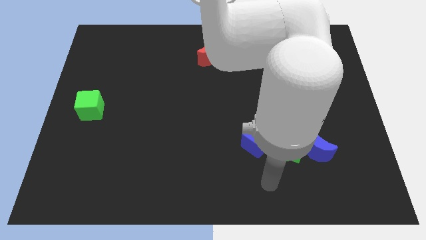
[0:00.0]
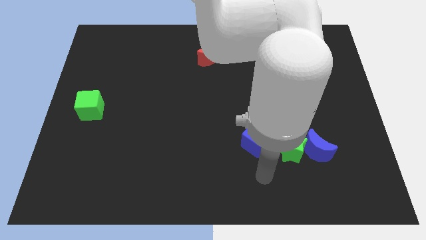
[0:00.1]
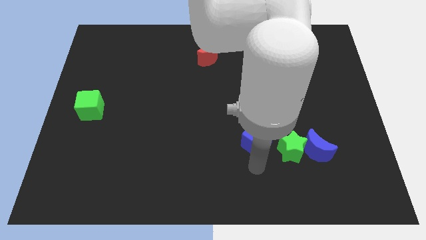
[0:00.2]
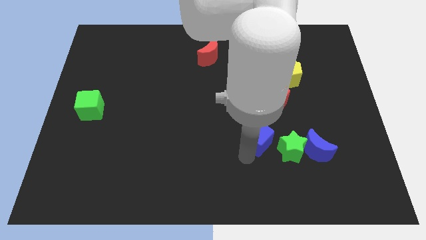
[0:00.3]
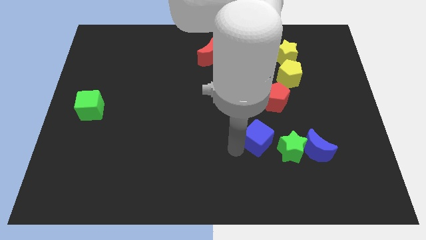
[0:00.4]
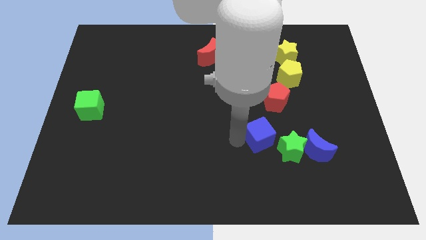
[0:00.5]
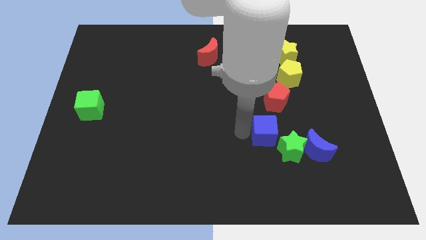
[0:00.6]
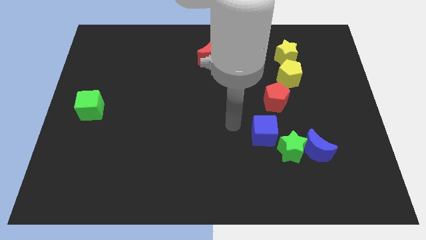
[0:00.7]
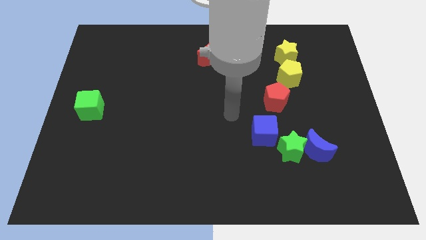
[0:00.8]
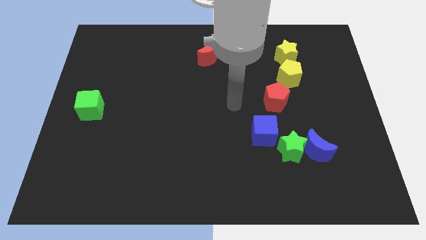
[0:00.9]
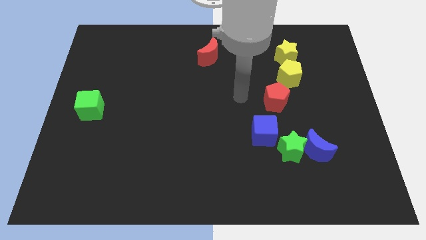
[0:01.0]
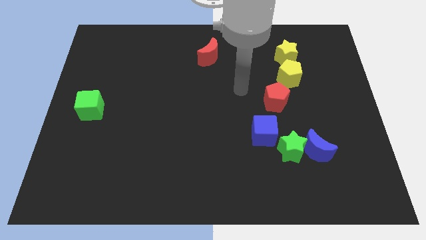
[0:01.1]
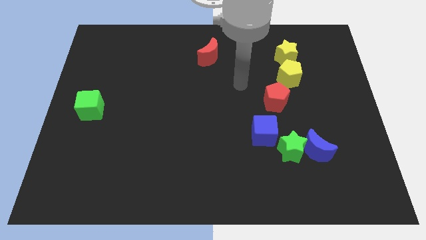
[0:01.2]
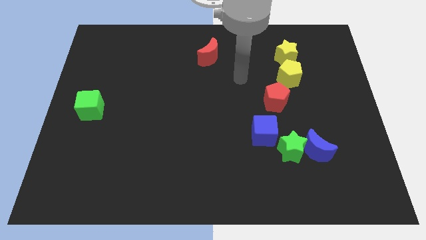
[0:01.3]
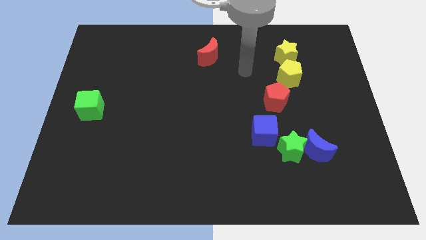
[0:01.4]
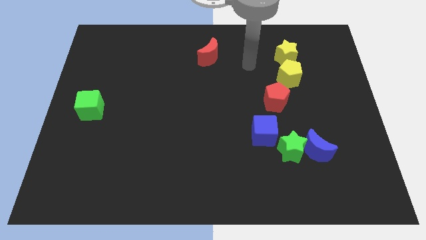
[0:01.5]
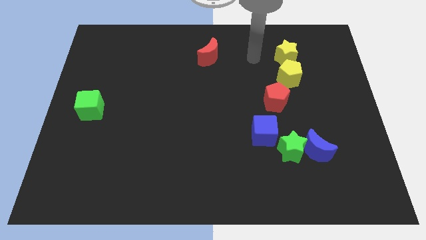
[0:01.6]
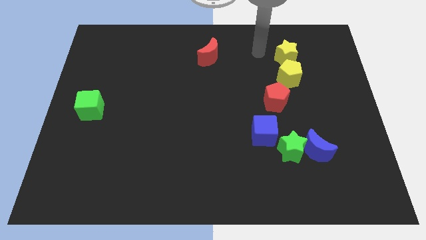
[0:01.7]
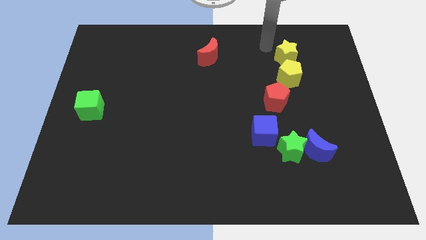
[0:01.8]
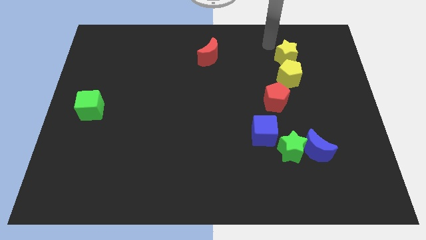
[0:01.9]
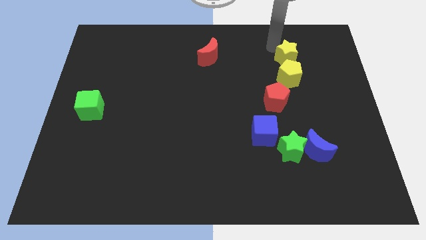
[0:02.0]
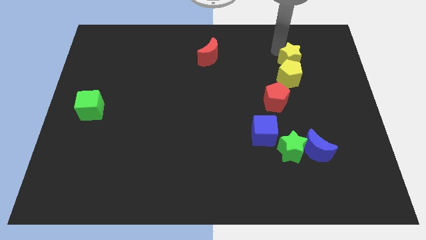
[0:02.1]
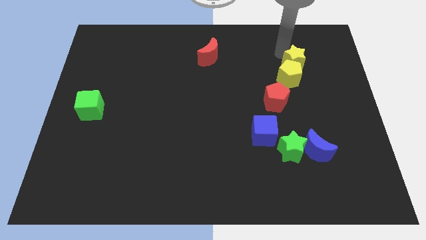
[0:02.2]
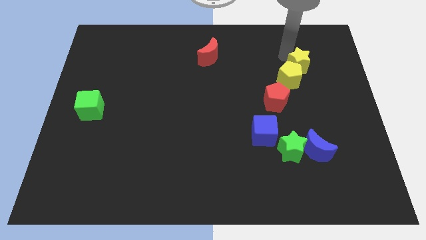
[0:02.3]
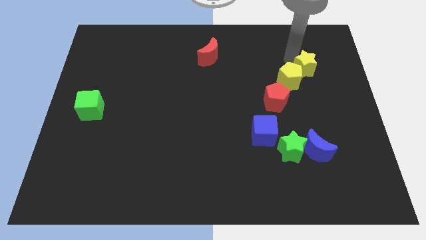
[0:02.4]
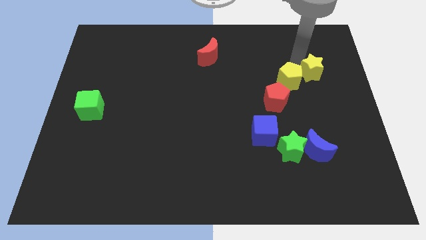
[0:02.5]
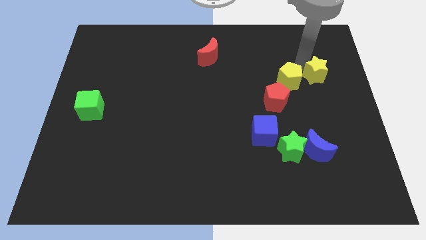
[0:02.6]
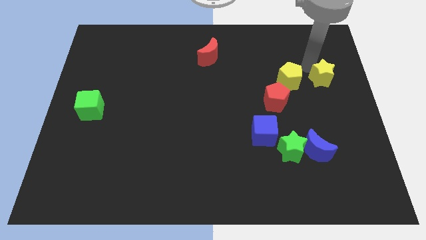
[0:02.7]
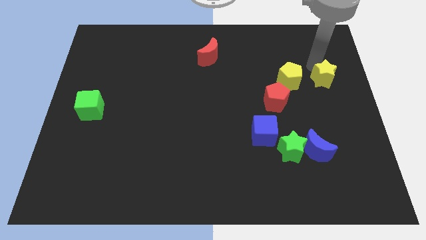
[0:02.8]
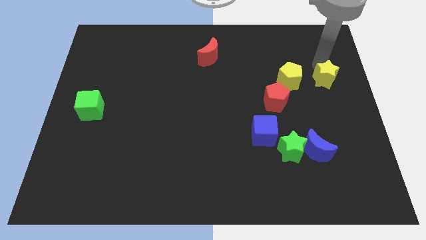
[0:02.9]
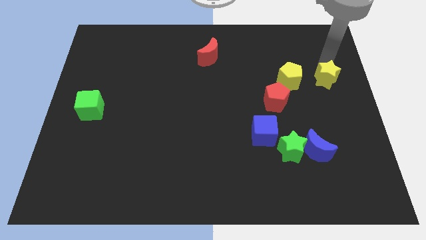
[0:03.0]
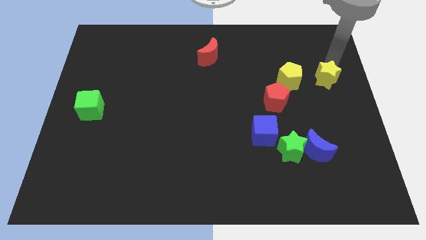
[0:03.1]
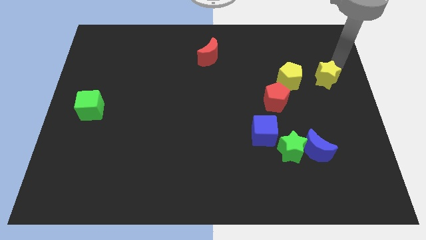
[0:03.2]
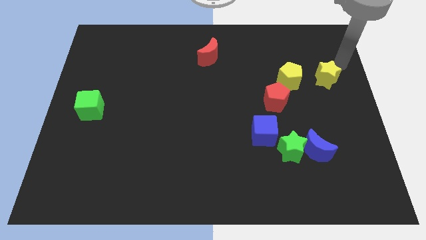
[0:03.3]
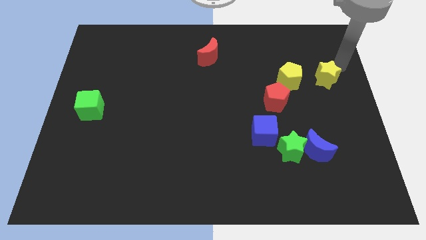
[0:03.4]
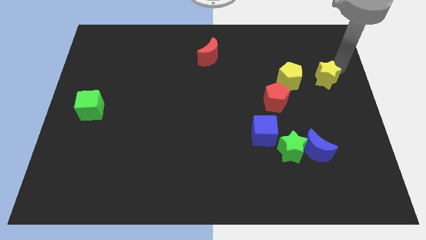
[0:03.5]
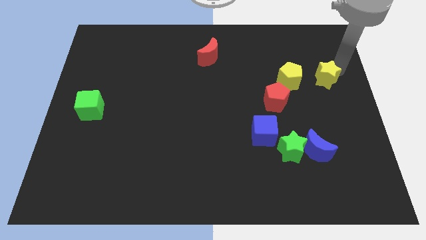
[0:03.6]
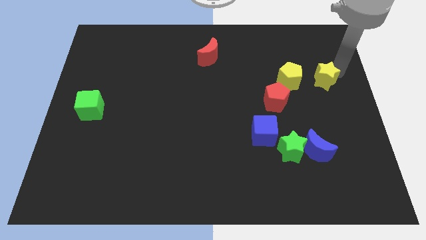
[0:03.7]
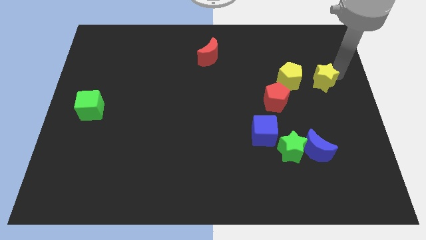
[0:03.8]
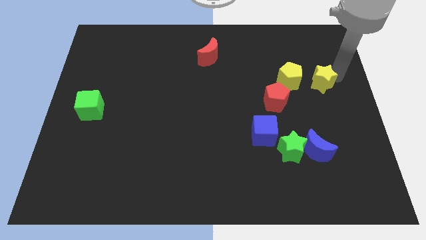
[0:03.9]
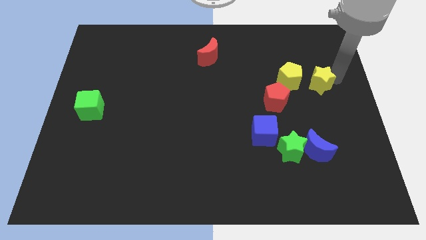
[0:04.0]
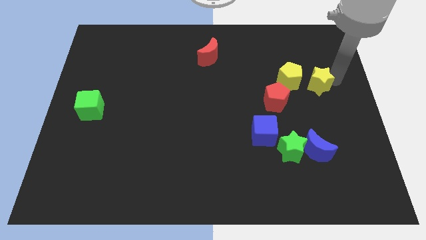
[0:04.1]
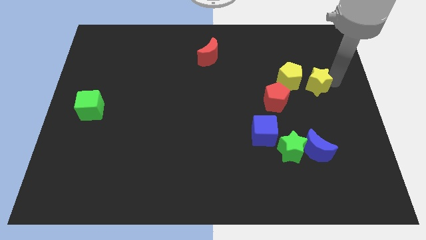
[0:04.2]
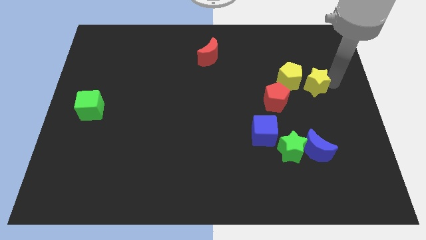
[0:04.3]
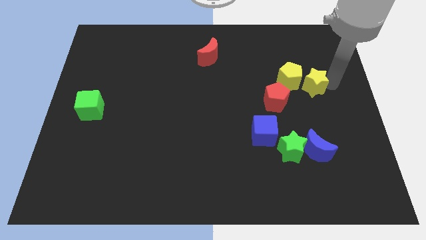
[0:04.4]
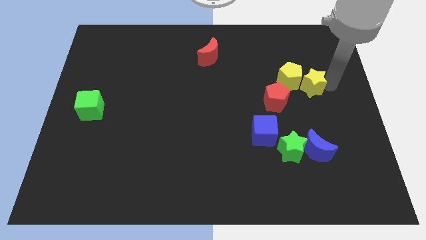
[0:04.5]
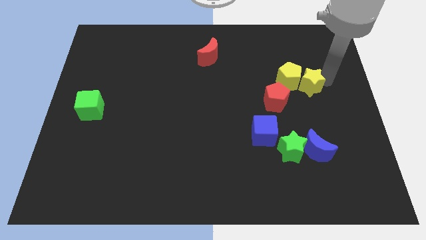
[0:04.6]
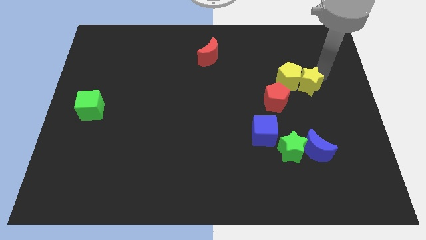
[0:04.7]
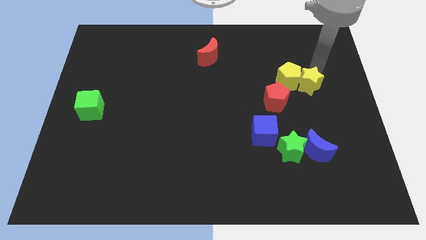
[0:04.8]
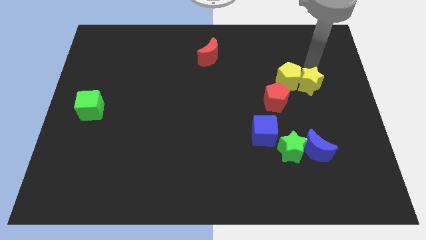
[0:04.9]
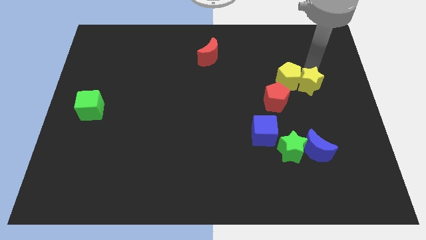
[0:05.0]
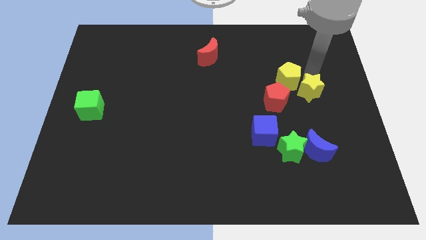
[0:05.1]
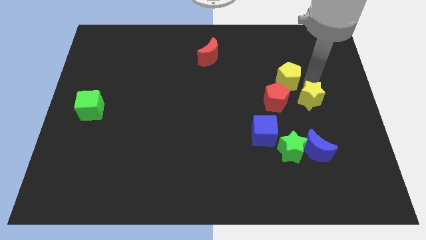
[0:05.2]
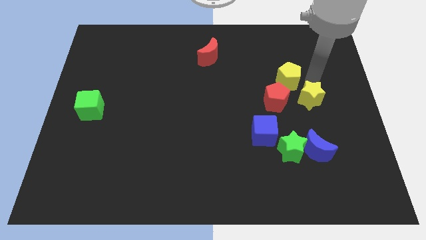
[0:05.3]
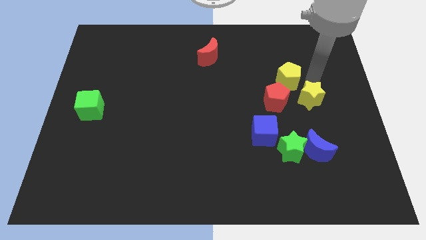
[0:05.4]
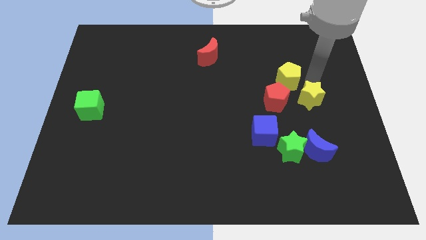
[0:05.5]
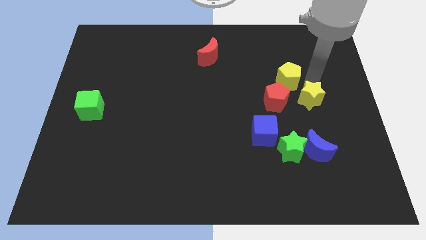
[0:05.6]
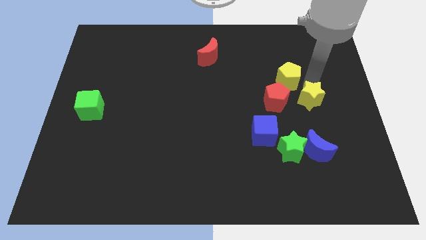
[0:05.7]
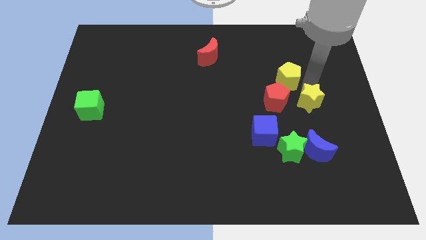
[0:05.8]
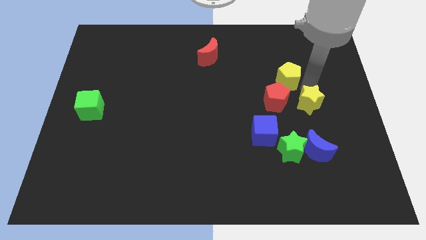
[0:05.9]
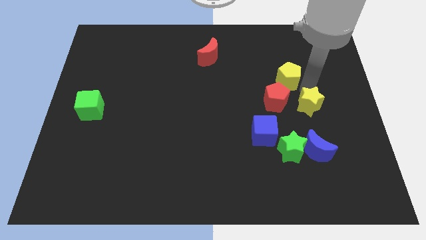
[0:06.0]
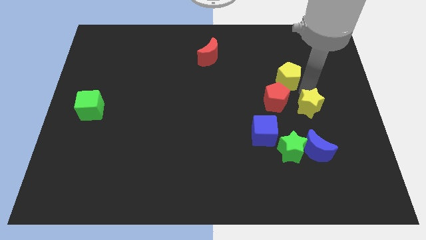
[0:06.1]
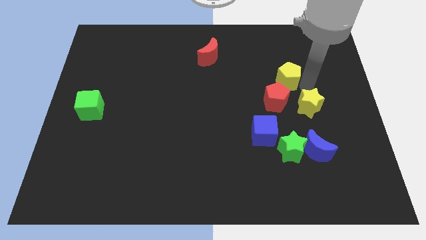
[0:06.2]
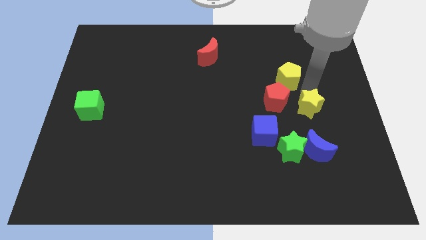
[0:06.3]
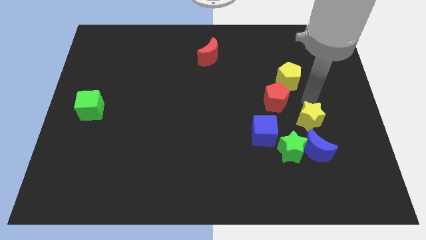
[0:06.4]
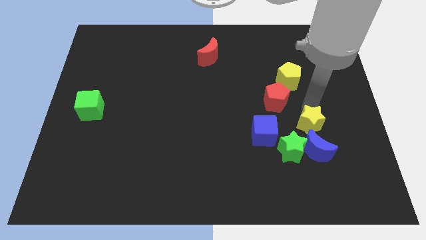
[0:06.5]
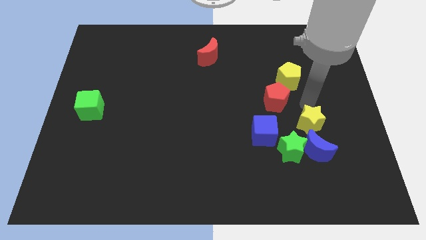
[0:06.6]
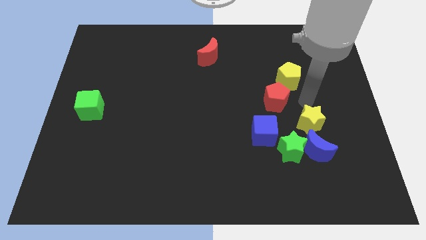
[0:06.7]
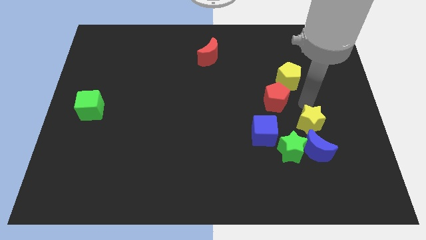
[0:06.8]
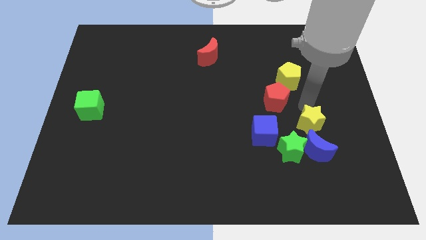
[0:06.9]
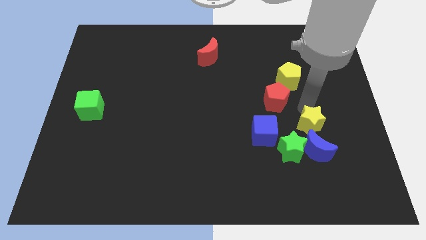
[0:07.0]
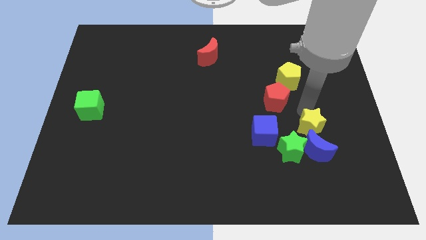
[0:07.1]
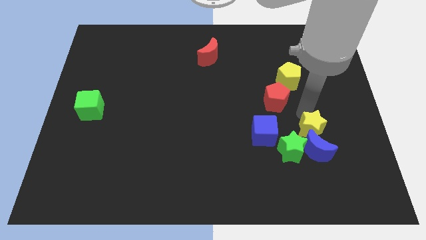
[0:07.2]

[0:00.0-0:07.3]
slide the yellow star close to the blue moon

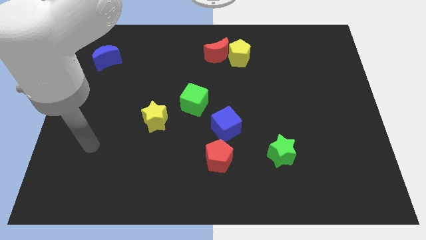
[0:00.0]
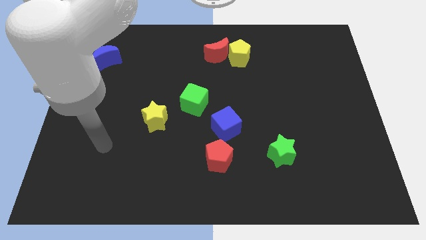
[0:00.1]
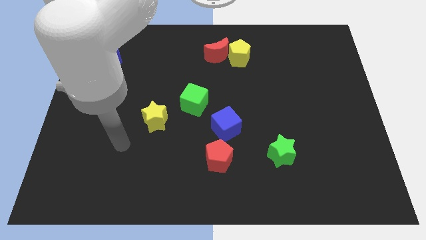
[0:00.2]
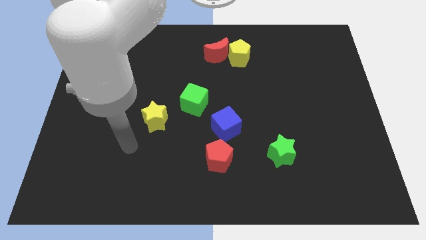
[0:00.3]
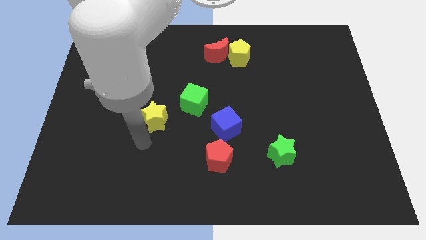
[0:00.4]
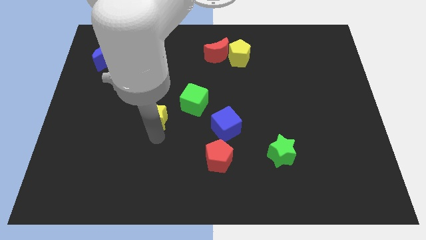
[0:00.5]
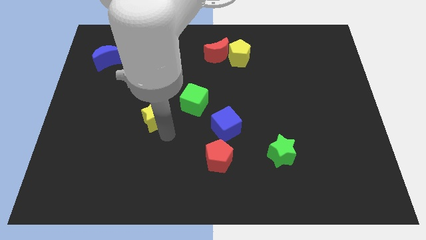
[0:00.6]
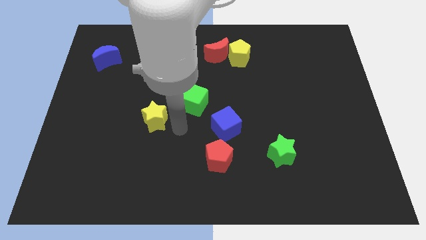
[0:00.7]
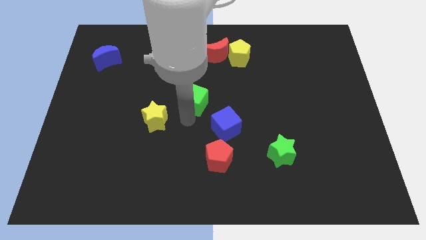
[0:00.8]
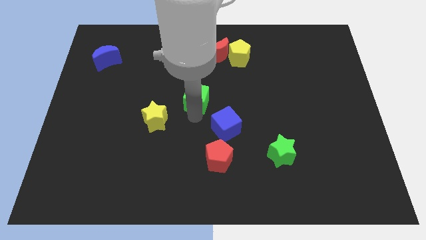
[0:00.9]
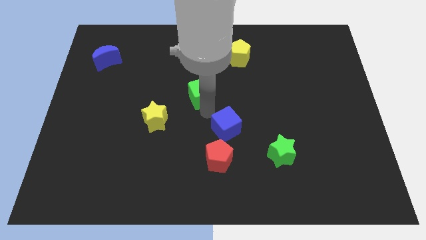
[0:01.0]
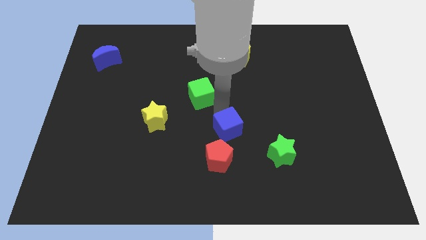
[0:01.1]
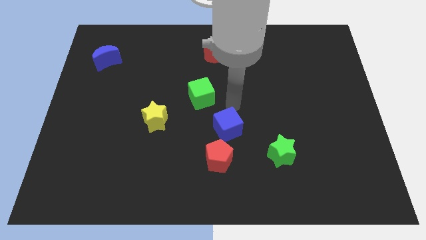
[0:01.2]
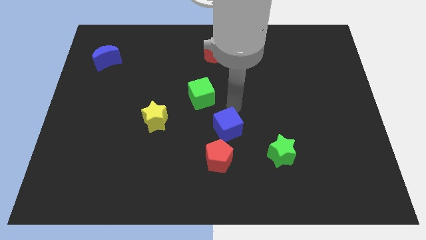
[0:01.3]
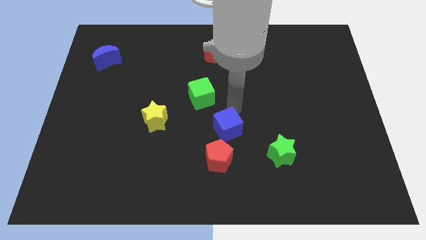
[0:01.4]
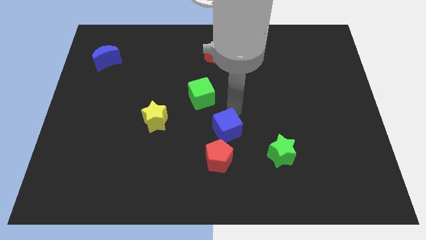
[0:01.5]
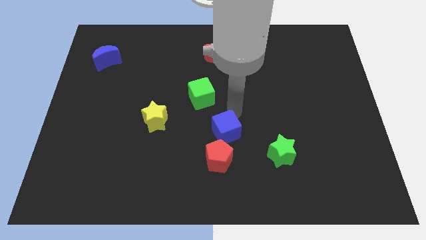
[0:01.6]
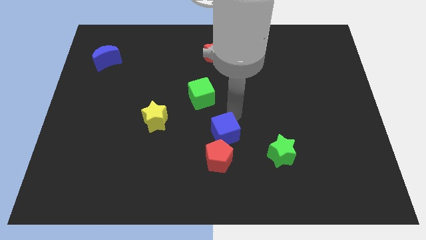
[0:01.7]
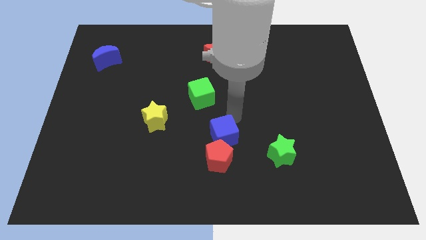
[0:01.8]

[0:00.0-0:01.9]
put the blue cube close to the red pentagon
